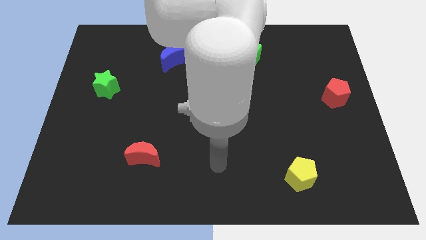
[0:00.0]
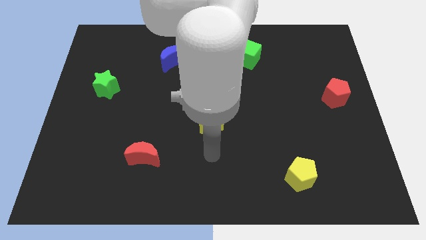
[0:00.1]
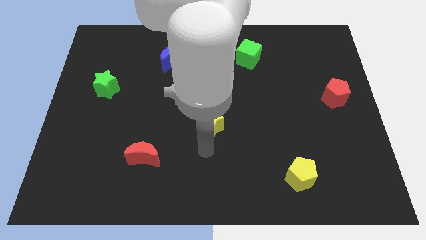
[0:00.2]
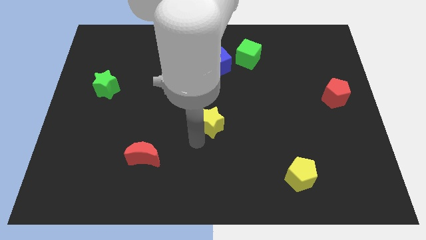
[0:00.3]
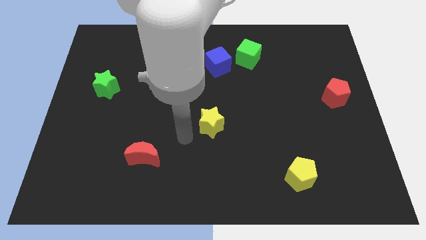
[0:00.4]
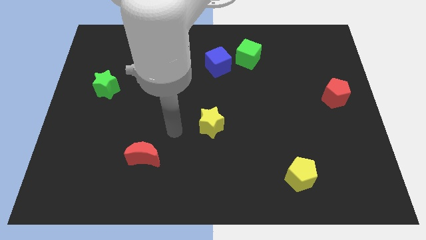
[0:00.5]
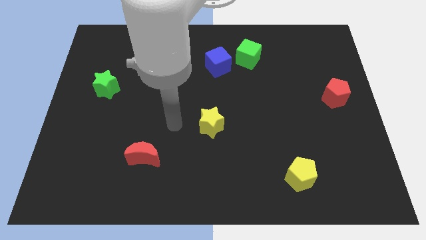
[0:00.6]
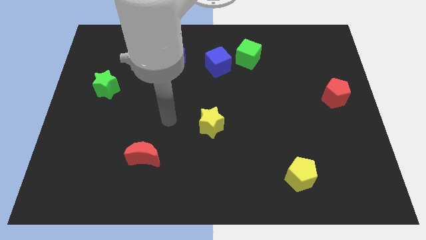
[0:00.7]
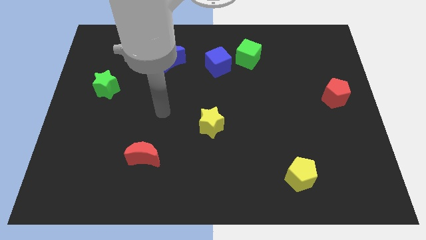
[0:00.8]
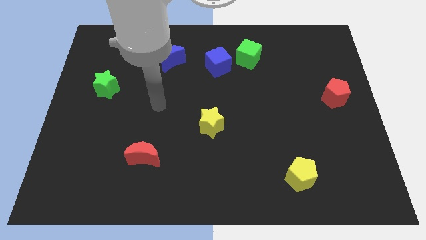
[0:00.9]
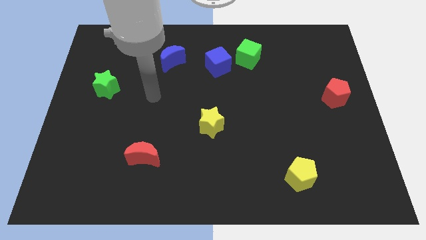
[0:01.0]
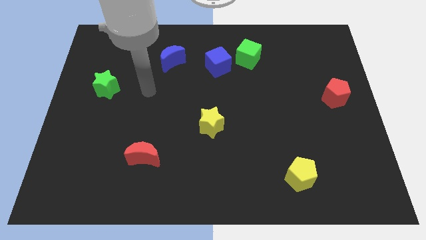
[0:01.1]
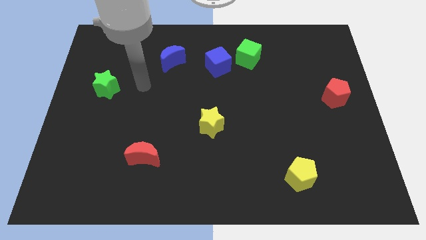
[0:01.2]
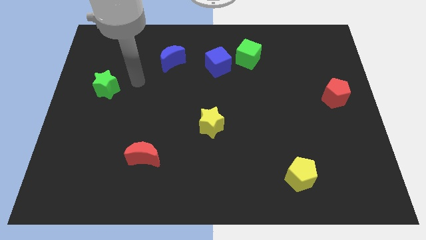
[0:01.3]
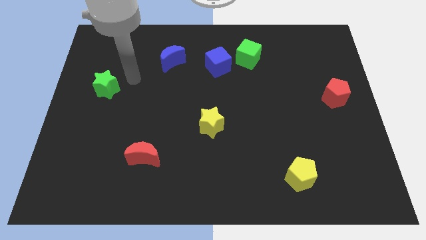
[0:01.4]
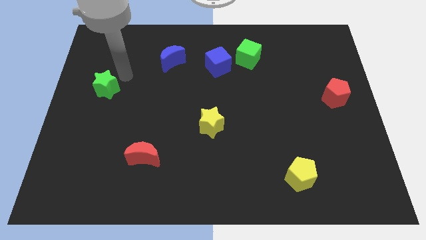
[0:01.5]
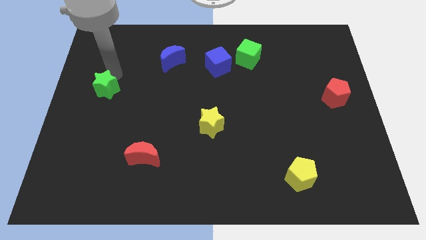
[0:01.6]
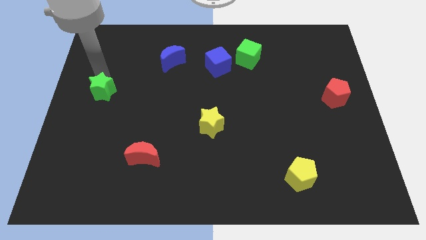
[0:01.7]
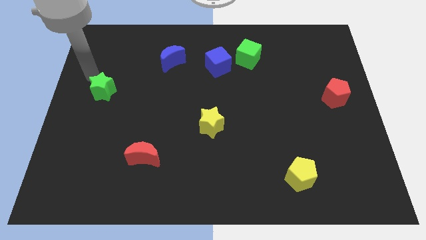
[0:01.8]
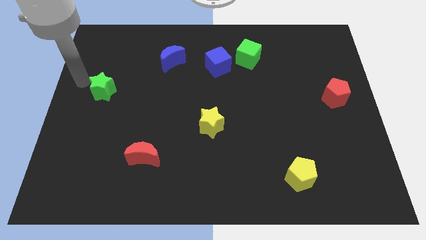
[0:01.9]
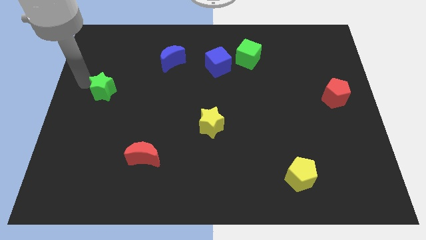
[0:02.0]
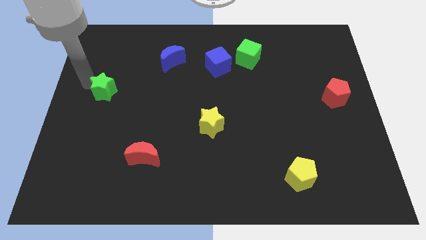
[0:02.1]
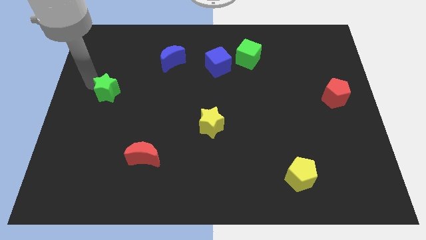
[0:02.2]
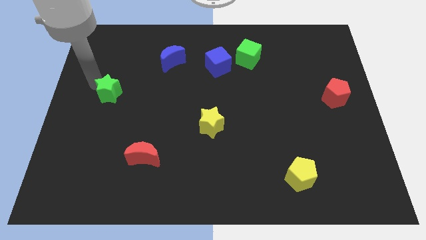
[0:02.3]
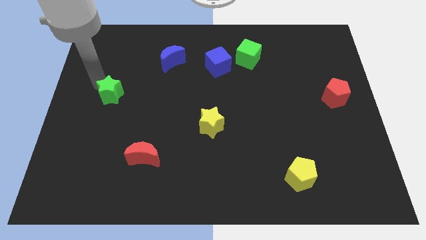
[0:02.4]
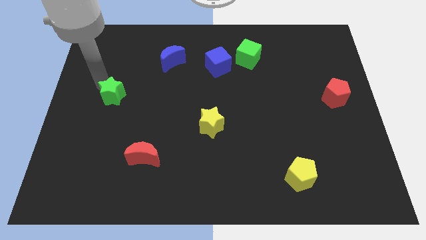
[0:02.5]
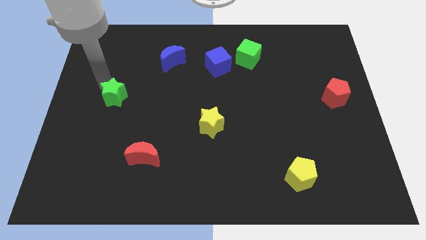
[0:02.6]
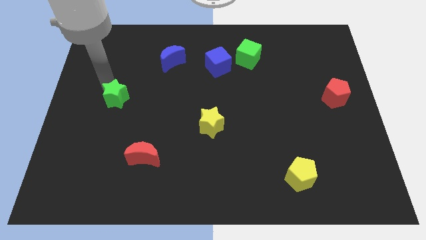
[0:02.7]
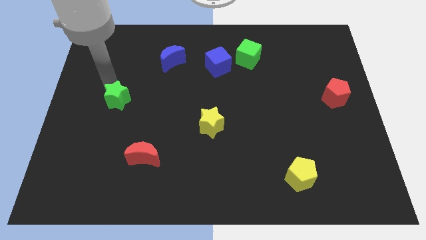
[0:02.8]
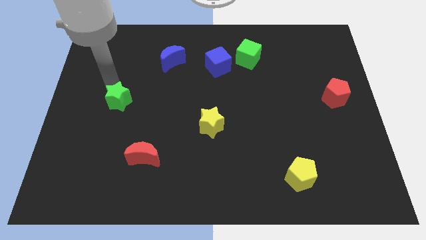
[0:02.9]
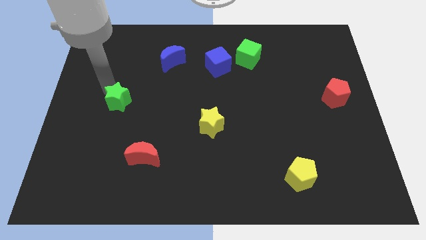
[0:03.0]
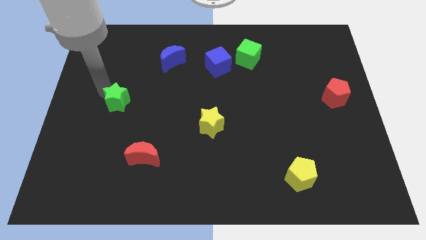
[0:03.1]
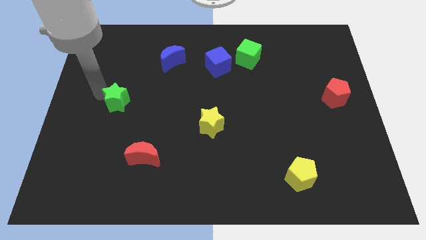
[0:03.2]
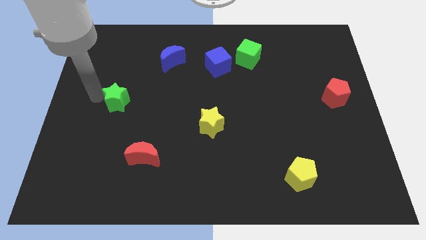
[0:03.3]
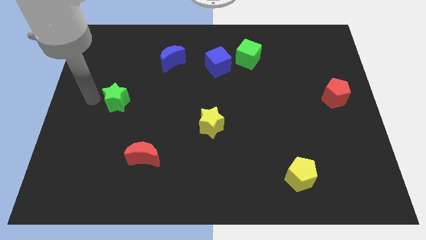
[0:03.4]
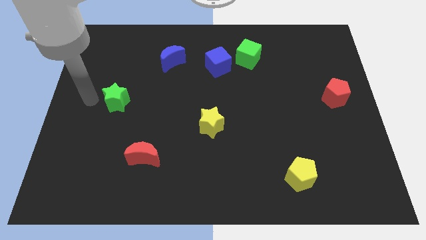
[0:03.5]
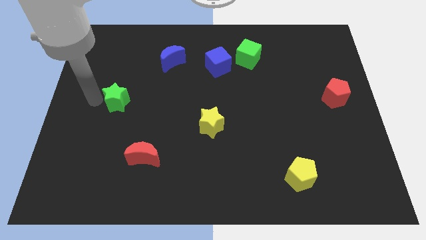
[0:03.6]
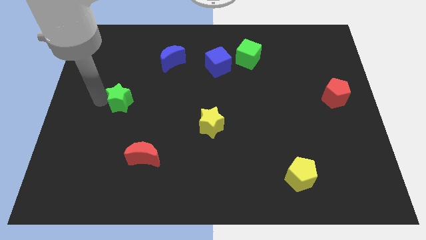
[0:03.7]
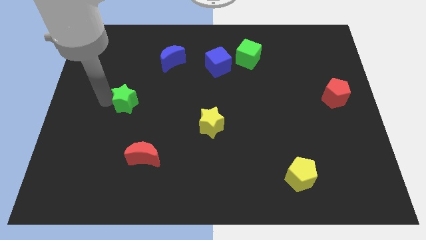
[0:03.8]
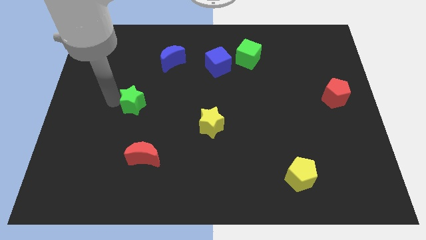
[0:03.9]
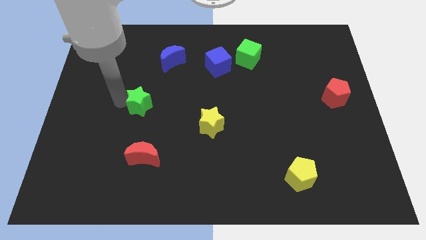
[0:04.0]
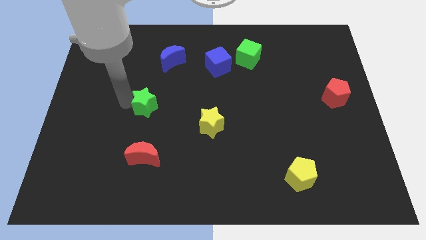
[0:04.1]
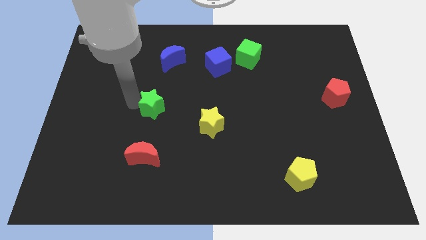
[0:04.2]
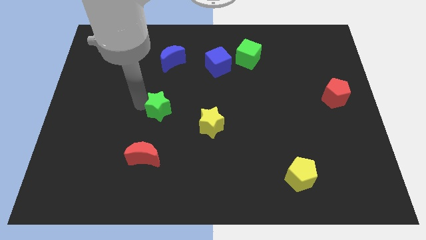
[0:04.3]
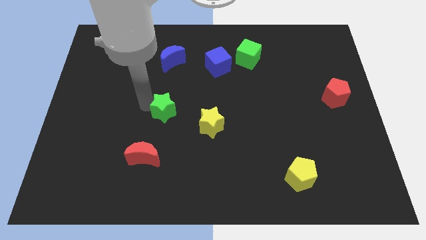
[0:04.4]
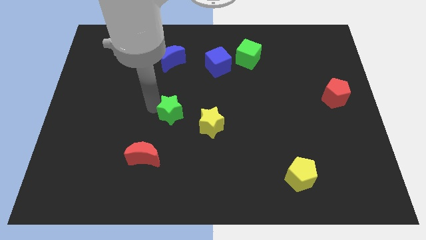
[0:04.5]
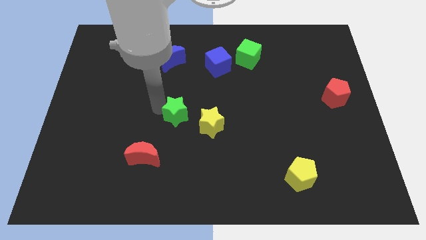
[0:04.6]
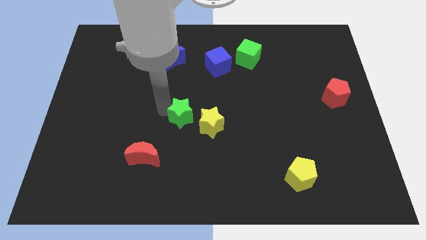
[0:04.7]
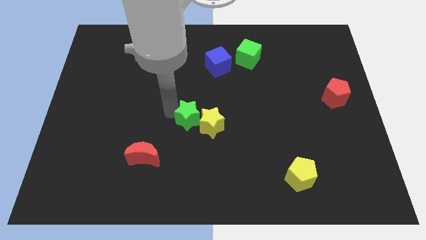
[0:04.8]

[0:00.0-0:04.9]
slide the green star next to the yellow star

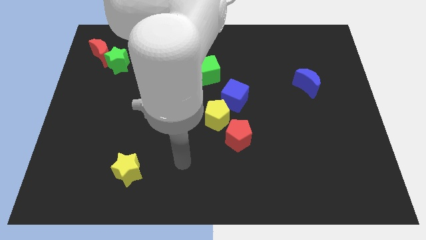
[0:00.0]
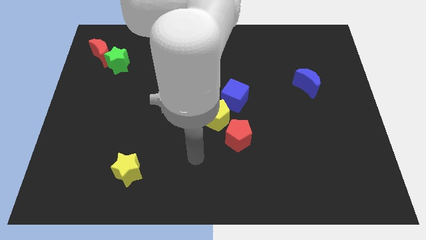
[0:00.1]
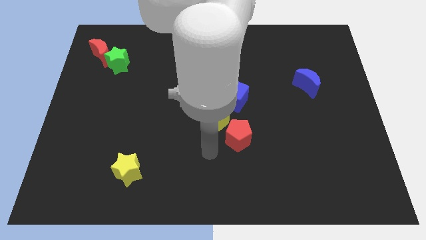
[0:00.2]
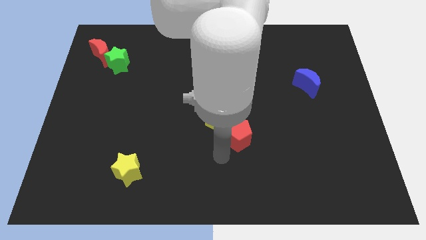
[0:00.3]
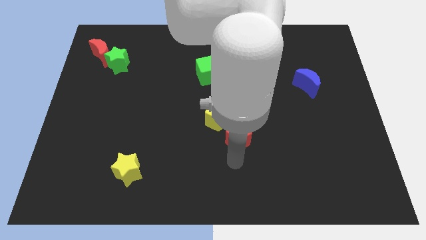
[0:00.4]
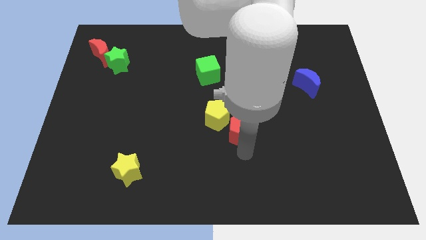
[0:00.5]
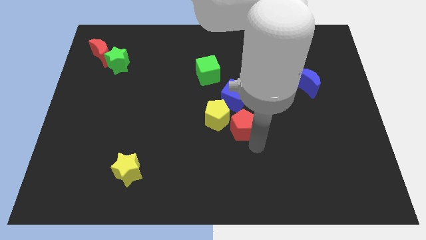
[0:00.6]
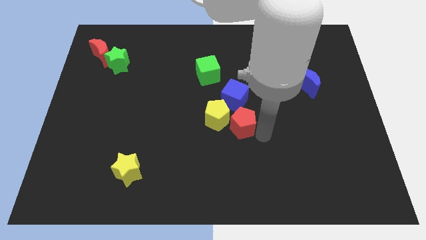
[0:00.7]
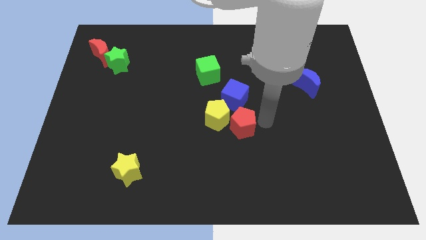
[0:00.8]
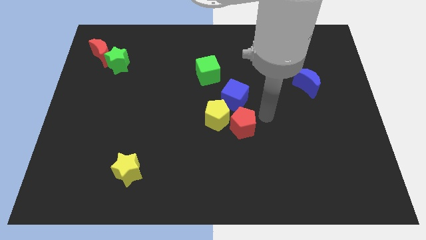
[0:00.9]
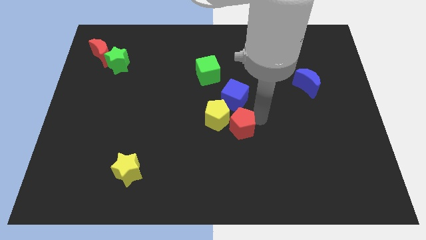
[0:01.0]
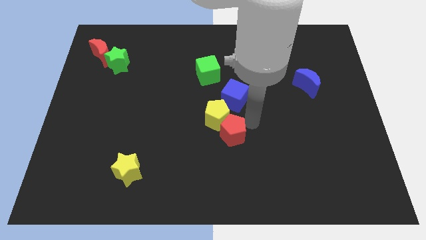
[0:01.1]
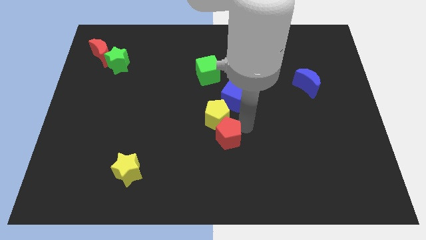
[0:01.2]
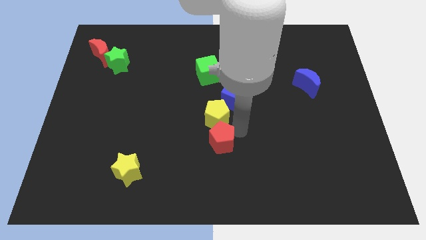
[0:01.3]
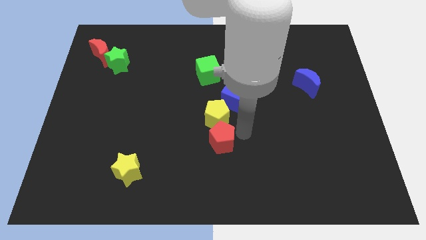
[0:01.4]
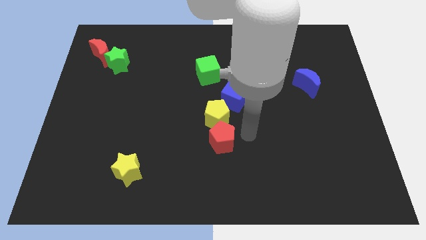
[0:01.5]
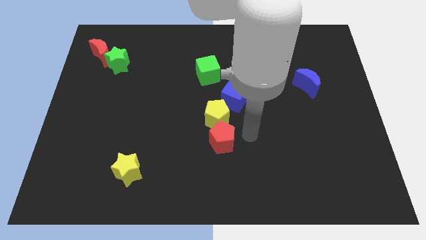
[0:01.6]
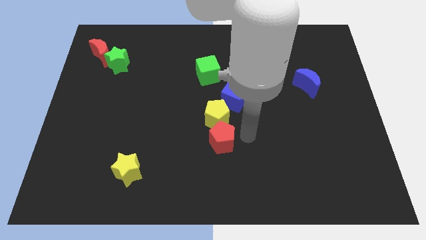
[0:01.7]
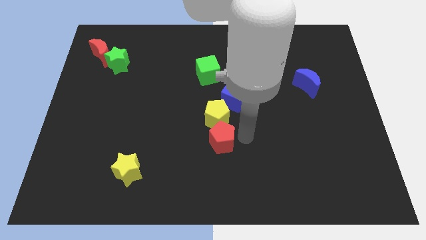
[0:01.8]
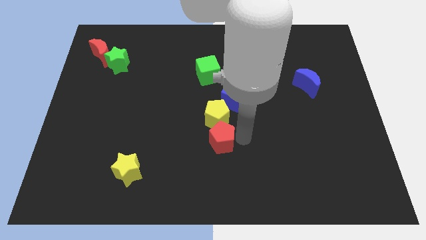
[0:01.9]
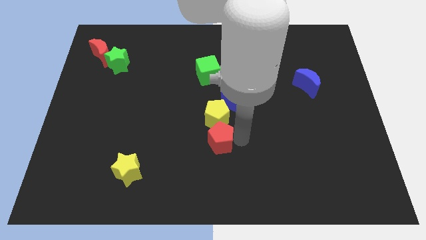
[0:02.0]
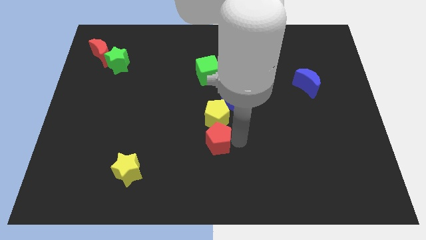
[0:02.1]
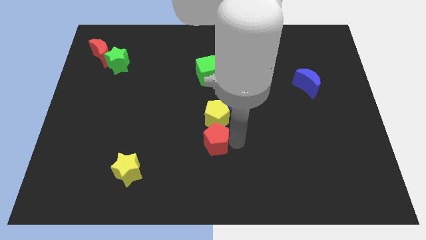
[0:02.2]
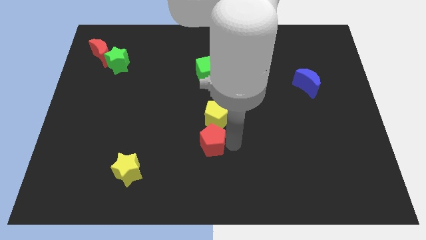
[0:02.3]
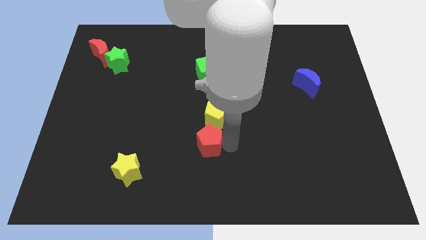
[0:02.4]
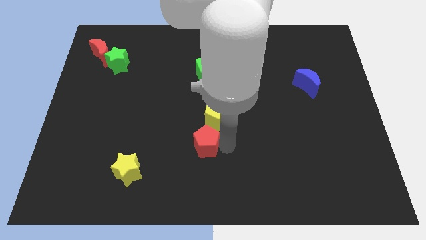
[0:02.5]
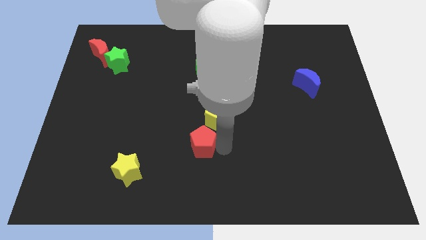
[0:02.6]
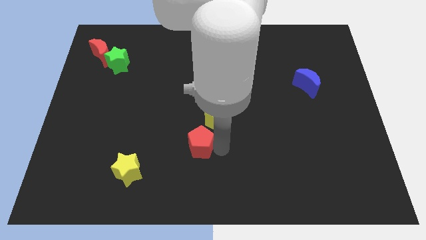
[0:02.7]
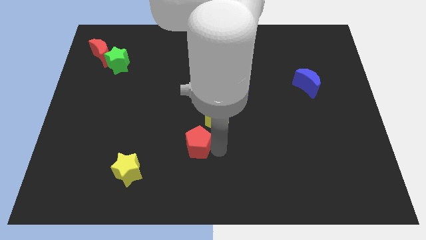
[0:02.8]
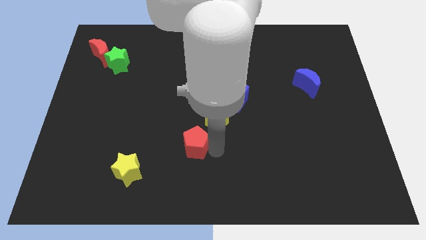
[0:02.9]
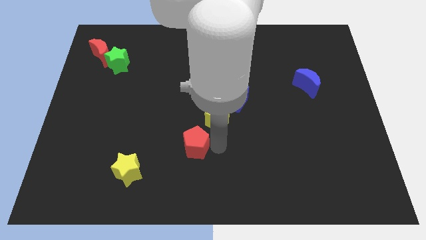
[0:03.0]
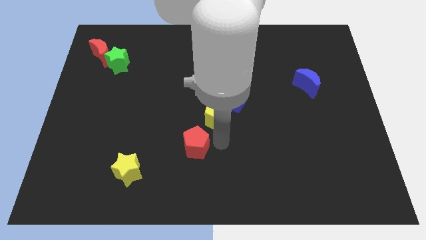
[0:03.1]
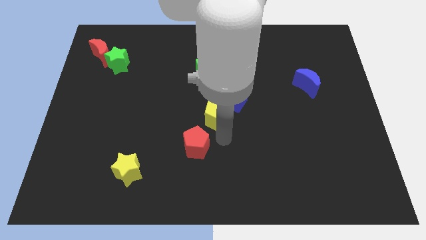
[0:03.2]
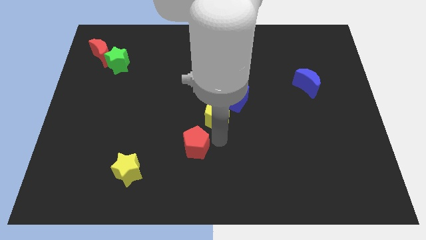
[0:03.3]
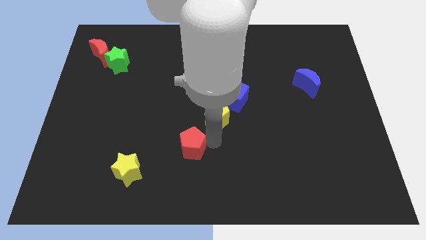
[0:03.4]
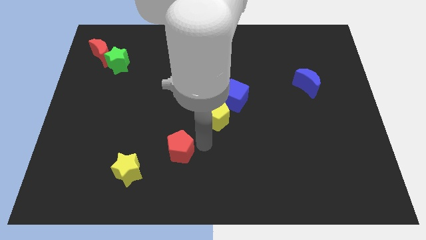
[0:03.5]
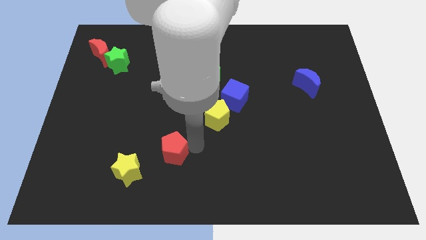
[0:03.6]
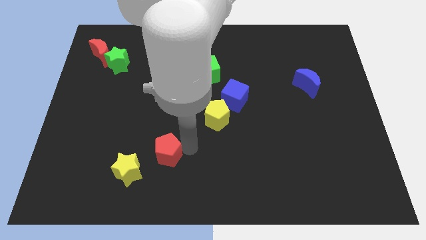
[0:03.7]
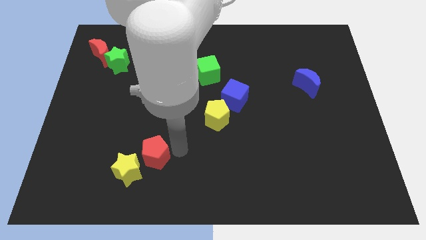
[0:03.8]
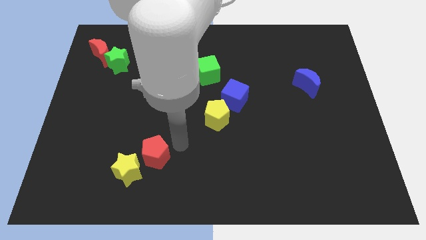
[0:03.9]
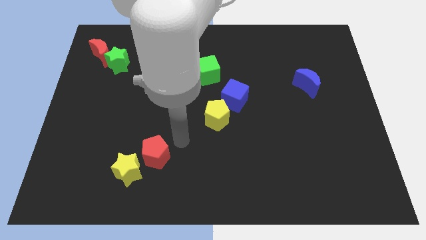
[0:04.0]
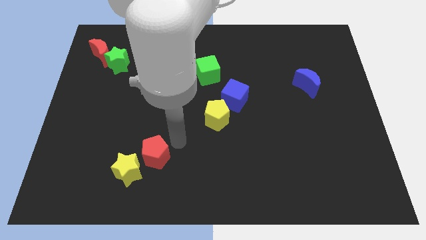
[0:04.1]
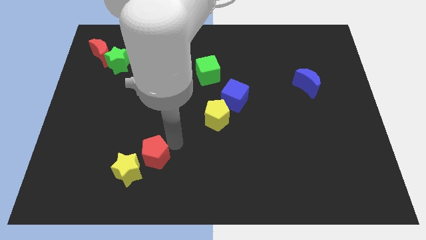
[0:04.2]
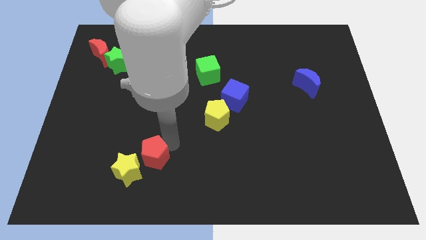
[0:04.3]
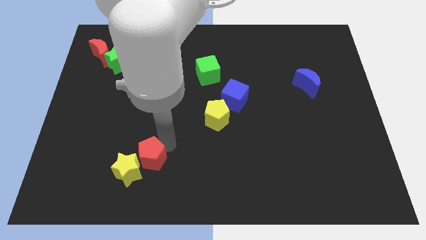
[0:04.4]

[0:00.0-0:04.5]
put the red pentagon close to the yellow star
